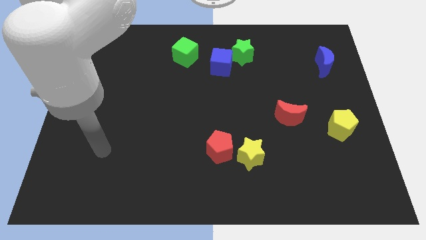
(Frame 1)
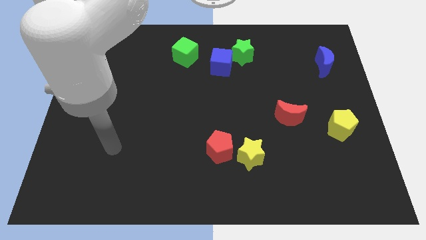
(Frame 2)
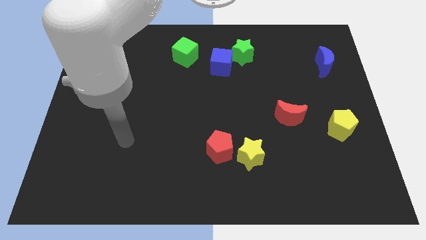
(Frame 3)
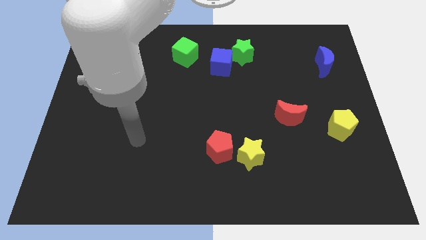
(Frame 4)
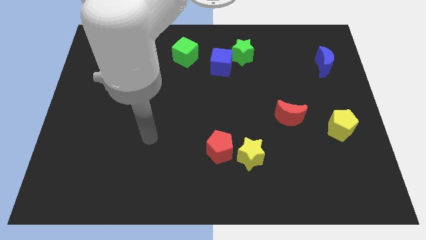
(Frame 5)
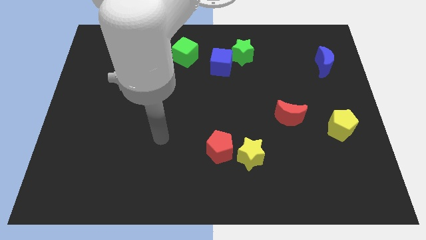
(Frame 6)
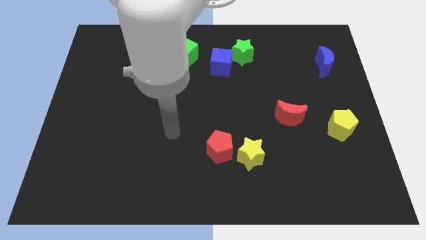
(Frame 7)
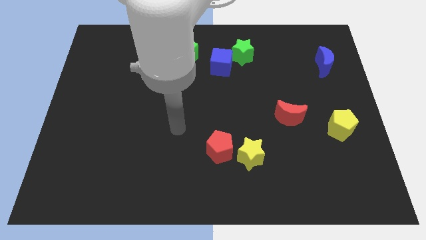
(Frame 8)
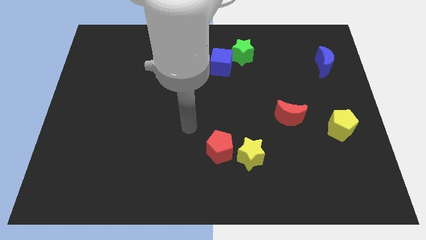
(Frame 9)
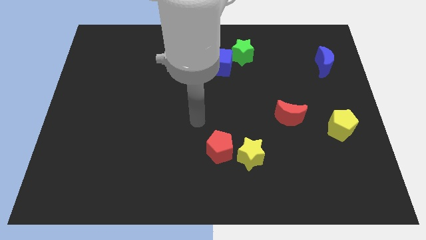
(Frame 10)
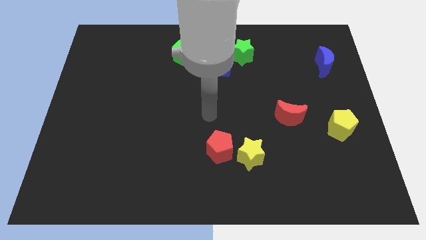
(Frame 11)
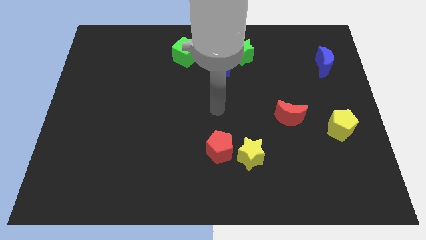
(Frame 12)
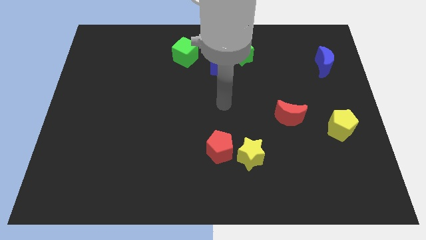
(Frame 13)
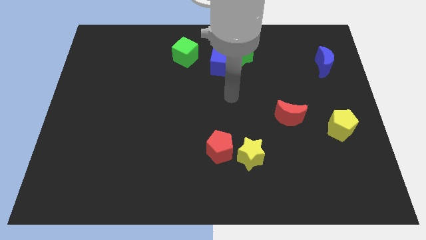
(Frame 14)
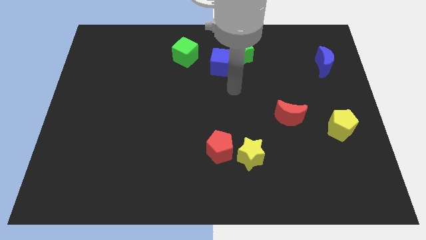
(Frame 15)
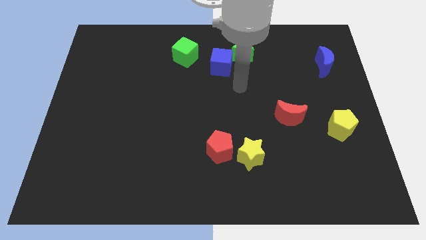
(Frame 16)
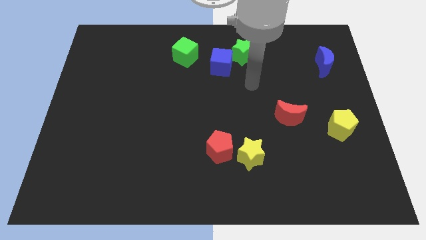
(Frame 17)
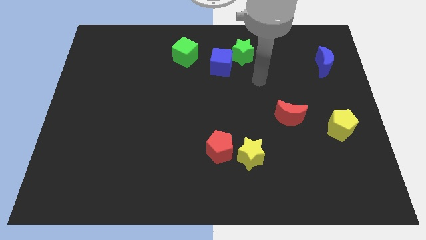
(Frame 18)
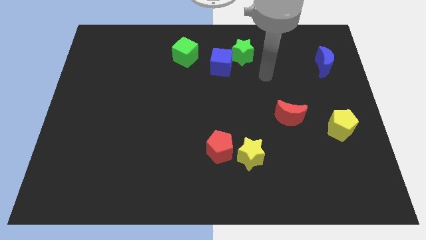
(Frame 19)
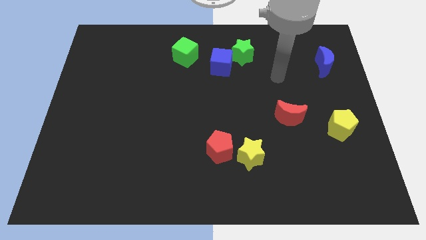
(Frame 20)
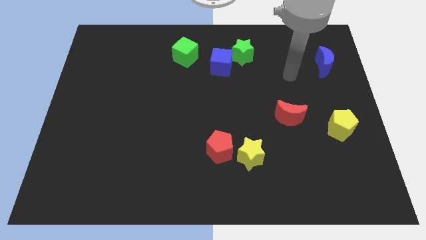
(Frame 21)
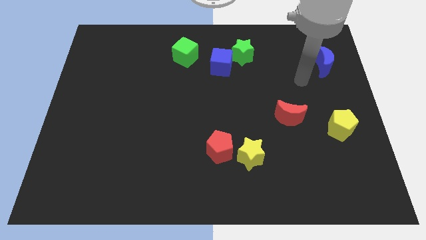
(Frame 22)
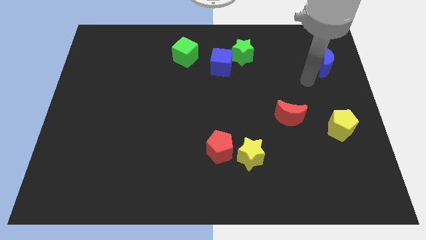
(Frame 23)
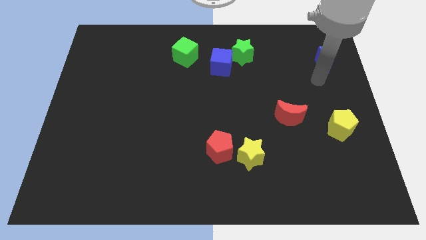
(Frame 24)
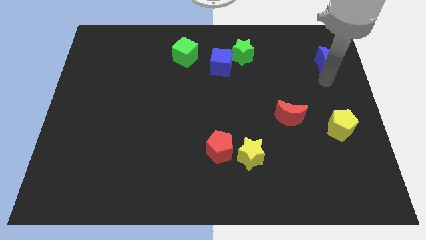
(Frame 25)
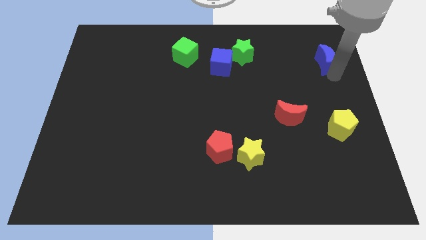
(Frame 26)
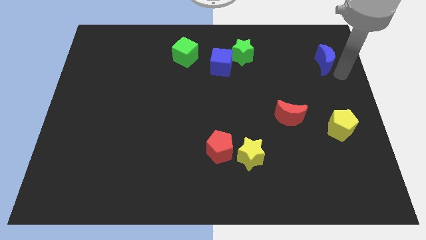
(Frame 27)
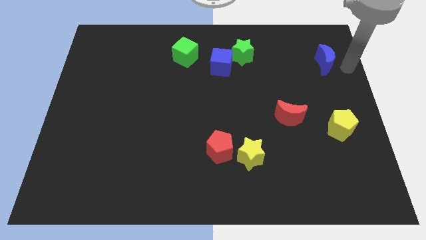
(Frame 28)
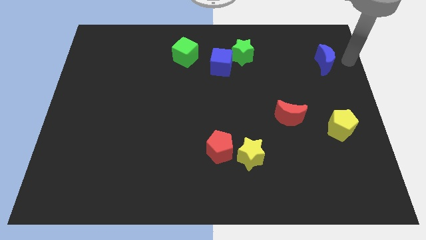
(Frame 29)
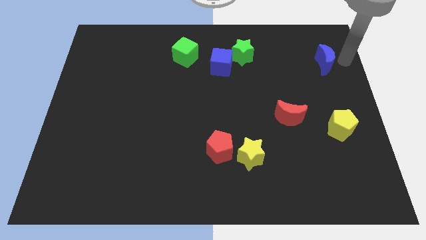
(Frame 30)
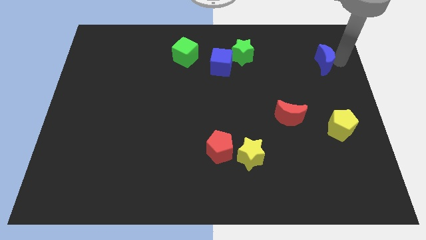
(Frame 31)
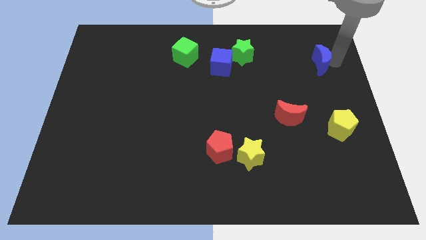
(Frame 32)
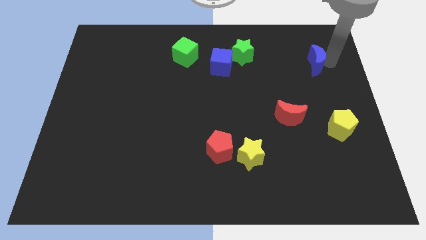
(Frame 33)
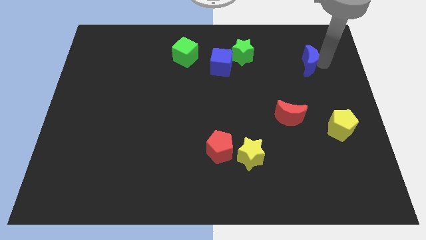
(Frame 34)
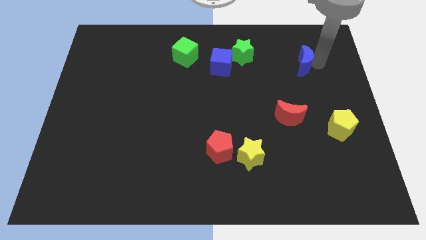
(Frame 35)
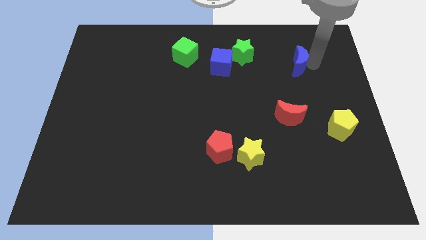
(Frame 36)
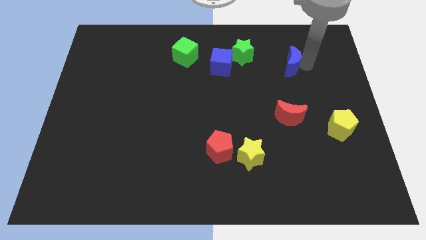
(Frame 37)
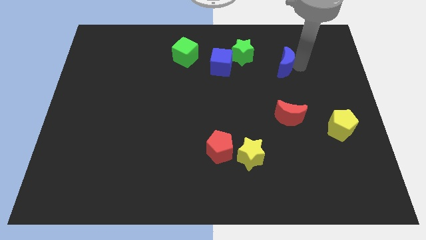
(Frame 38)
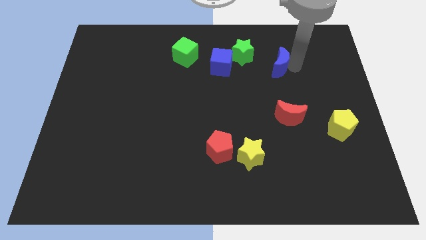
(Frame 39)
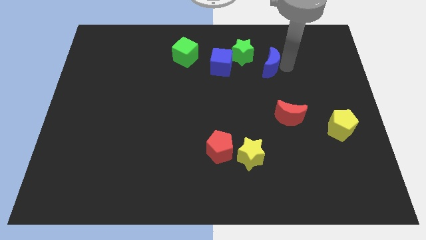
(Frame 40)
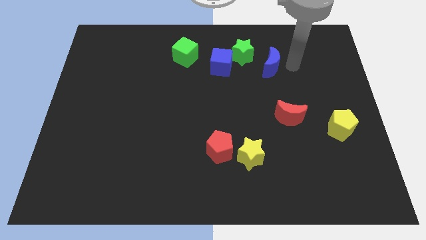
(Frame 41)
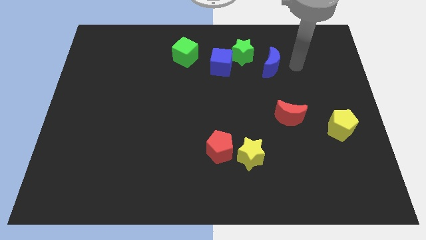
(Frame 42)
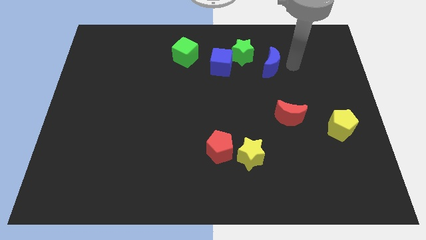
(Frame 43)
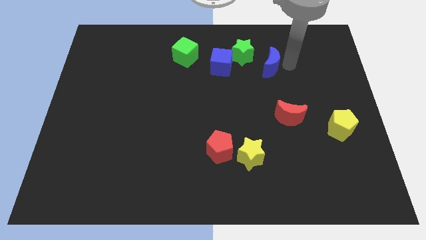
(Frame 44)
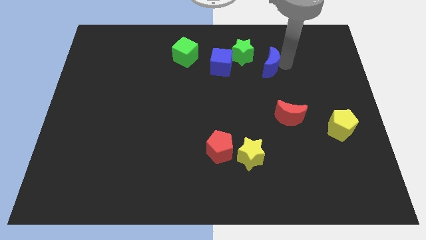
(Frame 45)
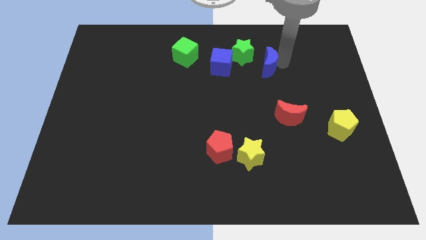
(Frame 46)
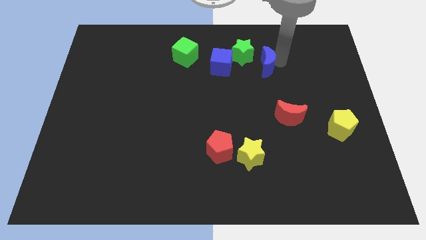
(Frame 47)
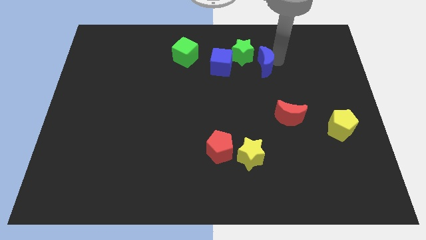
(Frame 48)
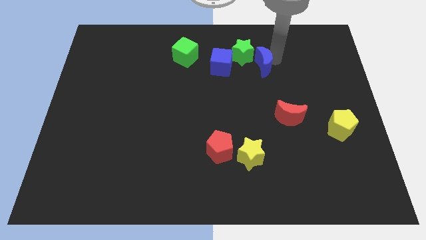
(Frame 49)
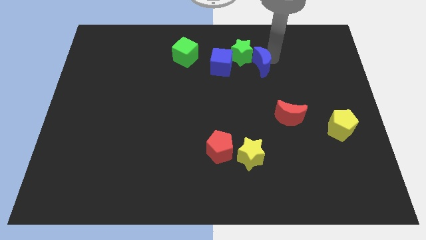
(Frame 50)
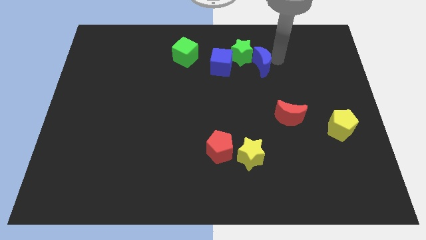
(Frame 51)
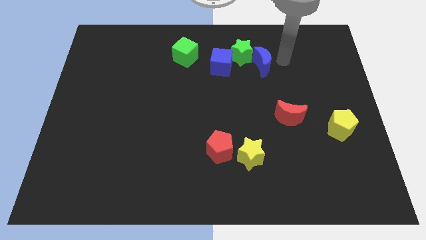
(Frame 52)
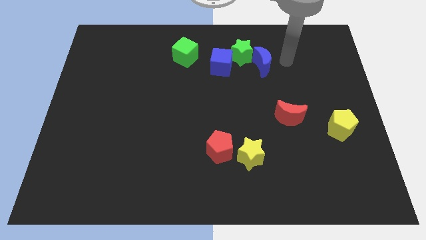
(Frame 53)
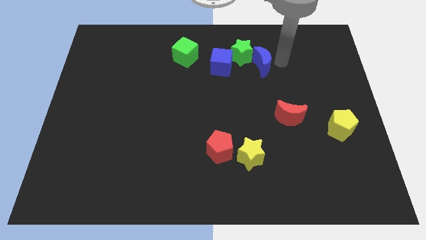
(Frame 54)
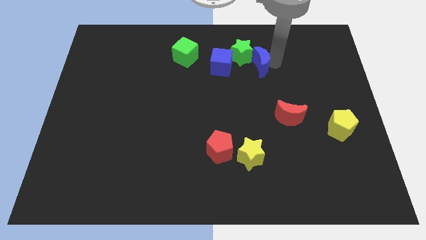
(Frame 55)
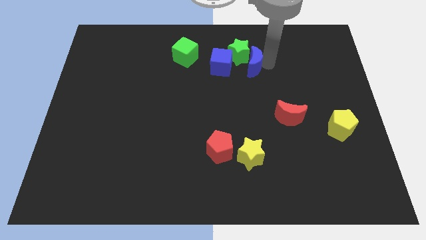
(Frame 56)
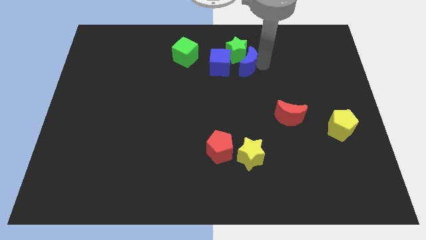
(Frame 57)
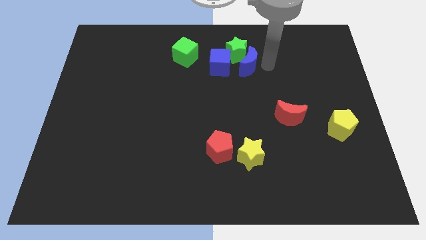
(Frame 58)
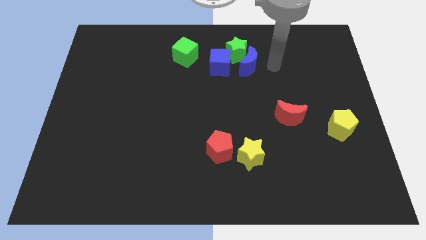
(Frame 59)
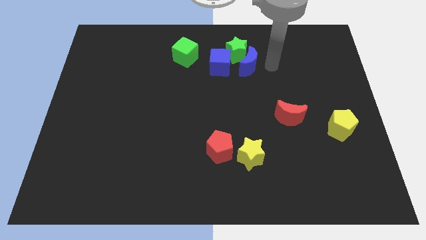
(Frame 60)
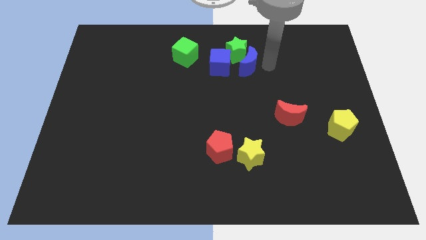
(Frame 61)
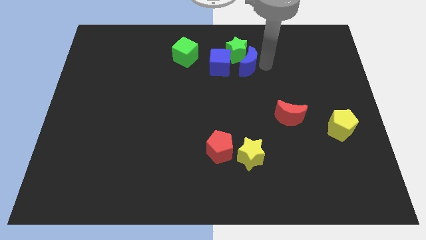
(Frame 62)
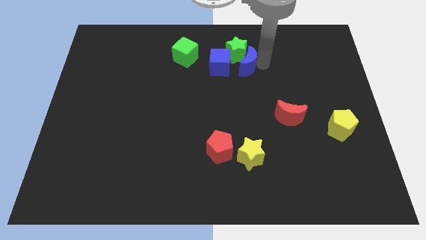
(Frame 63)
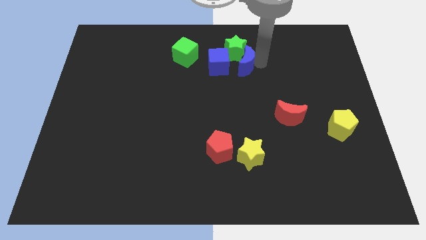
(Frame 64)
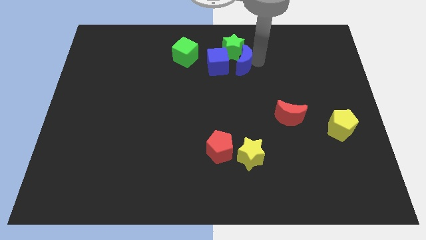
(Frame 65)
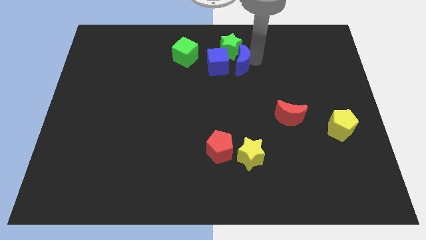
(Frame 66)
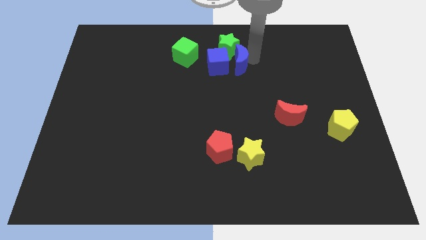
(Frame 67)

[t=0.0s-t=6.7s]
move the blue moon close to the blue cube
